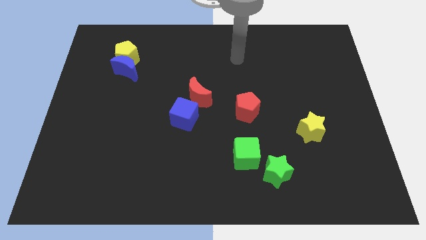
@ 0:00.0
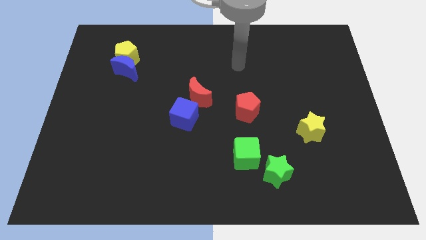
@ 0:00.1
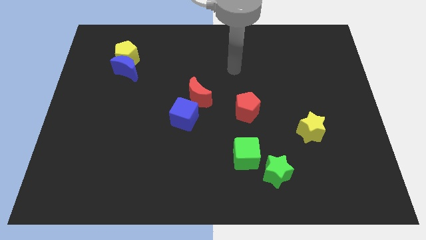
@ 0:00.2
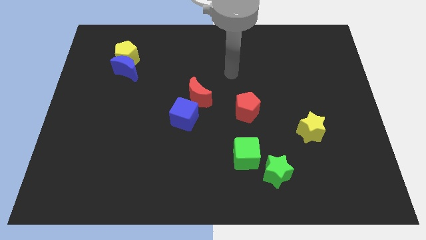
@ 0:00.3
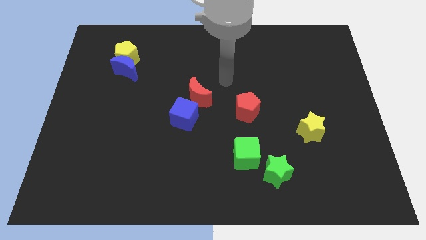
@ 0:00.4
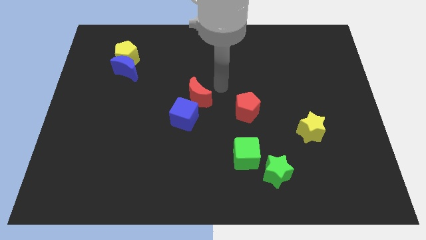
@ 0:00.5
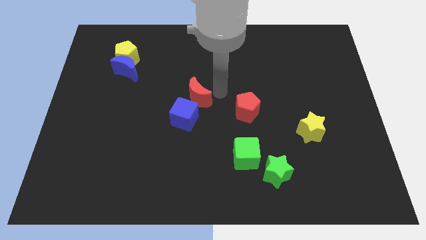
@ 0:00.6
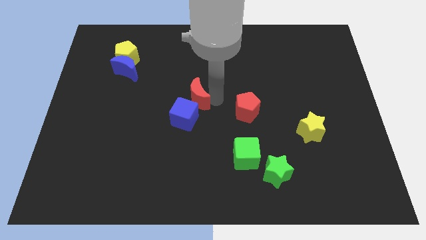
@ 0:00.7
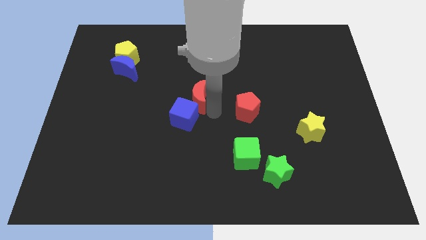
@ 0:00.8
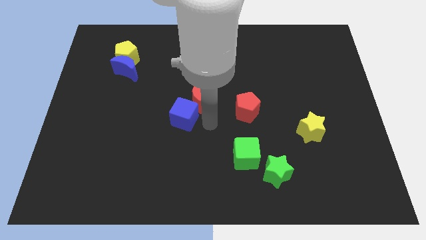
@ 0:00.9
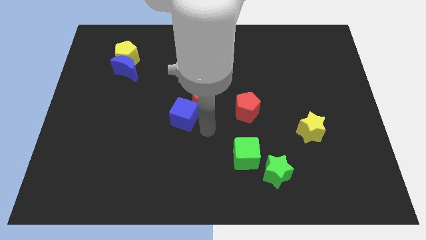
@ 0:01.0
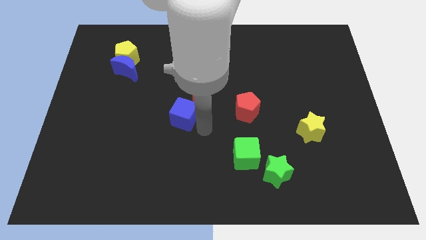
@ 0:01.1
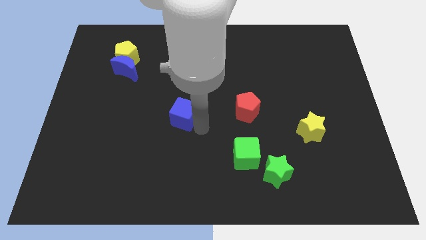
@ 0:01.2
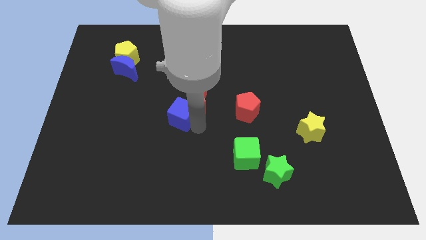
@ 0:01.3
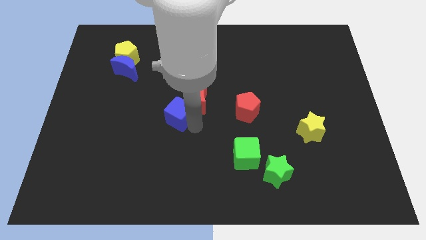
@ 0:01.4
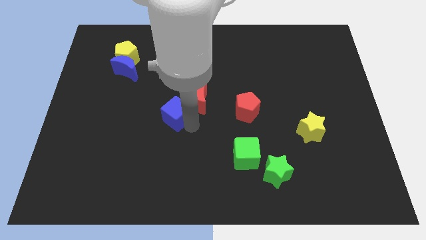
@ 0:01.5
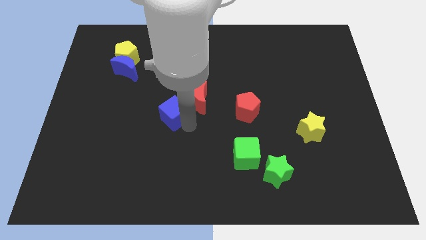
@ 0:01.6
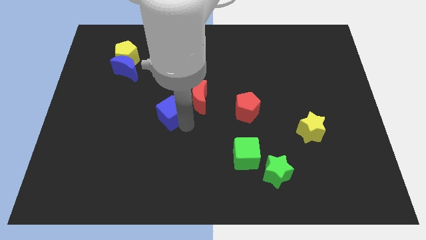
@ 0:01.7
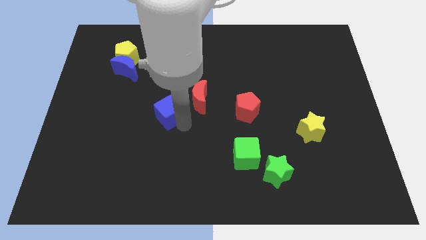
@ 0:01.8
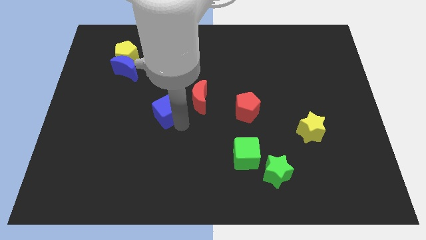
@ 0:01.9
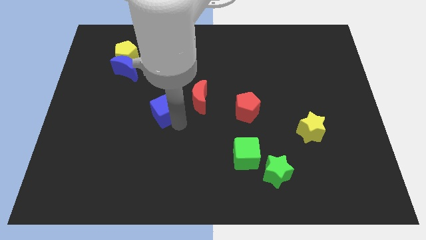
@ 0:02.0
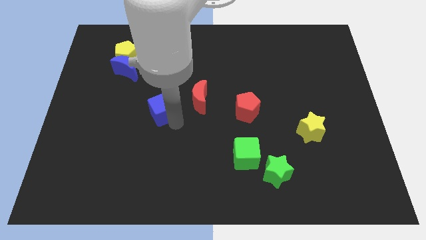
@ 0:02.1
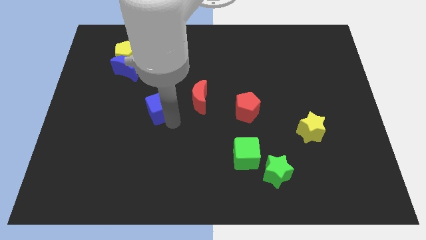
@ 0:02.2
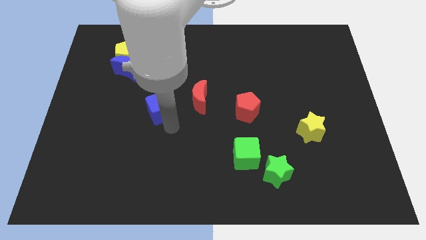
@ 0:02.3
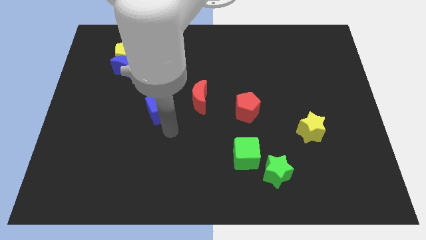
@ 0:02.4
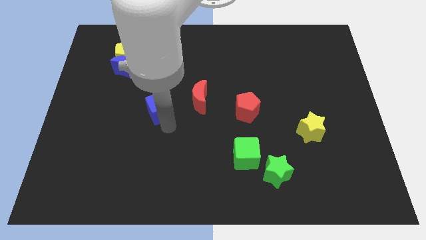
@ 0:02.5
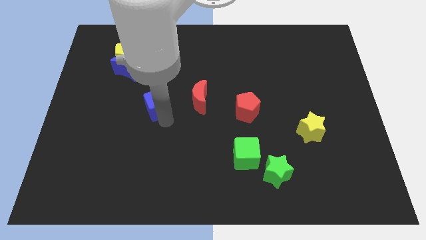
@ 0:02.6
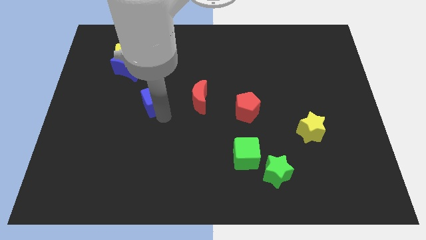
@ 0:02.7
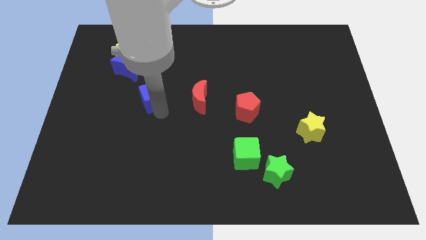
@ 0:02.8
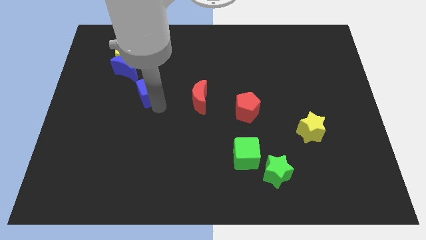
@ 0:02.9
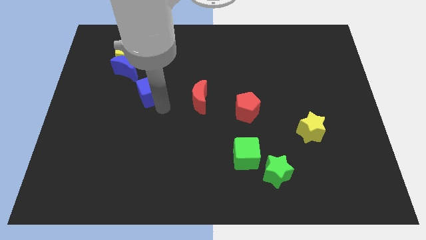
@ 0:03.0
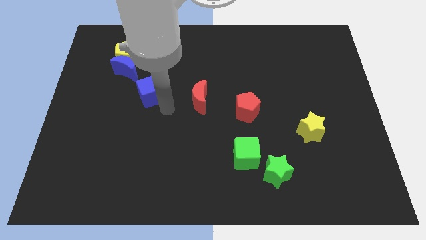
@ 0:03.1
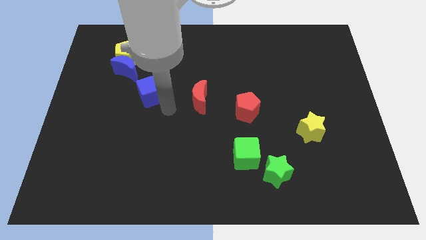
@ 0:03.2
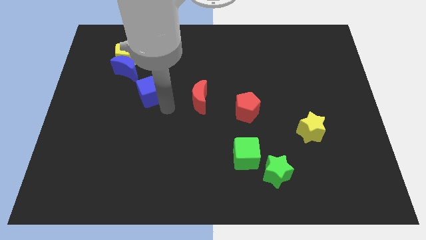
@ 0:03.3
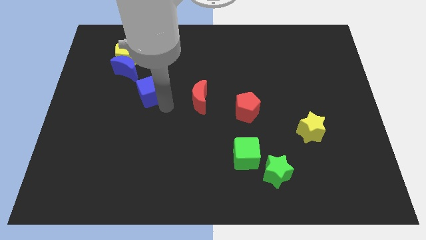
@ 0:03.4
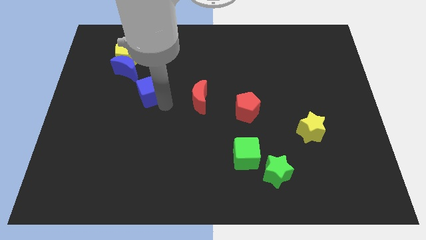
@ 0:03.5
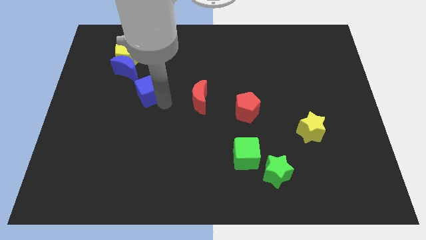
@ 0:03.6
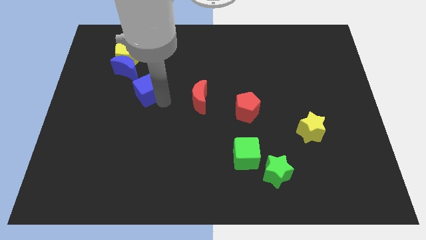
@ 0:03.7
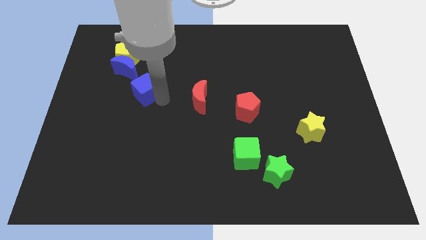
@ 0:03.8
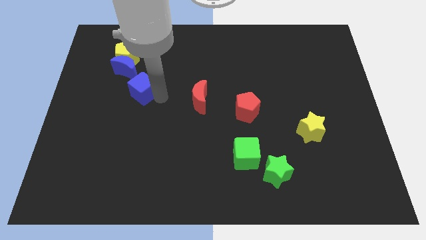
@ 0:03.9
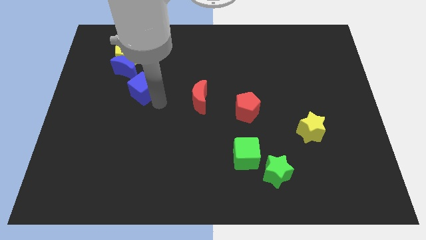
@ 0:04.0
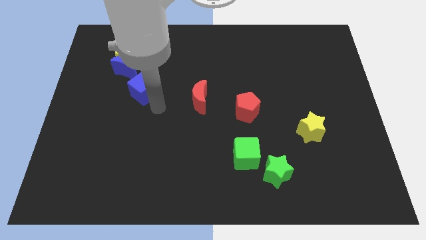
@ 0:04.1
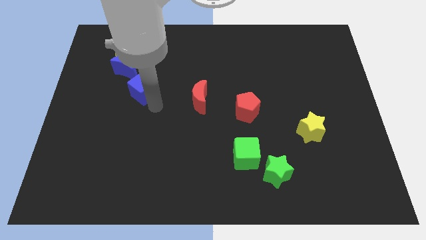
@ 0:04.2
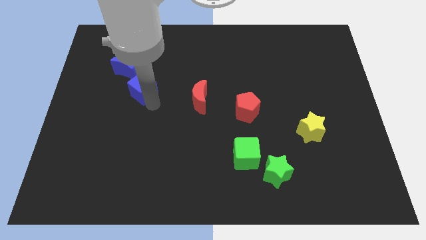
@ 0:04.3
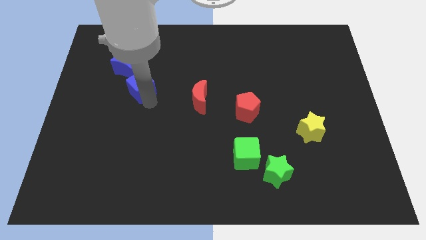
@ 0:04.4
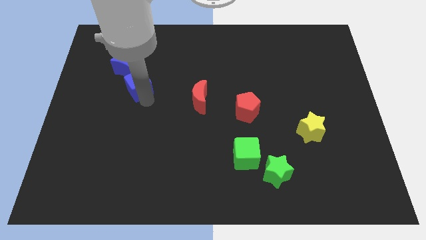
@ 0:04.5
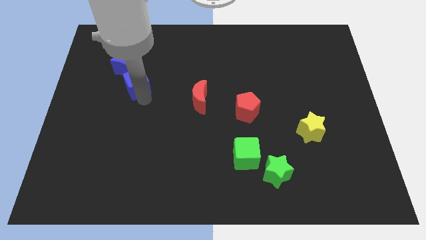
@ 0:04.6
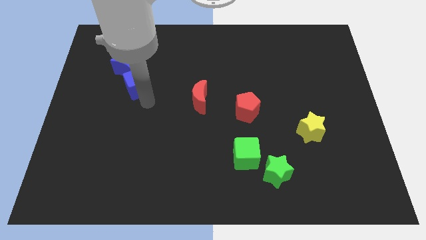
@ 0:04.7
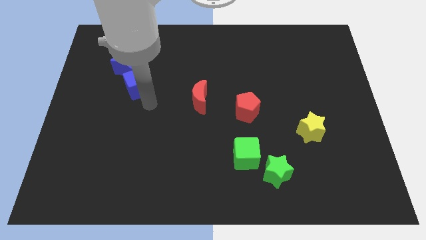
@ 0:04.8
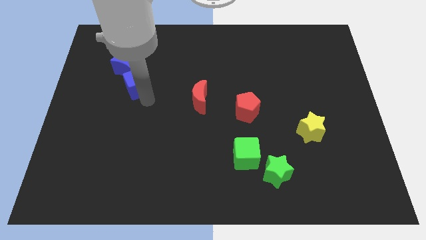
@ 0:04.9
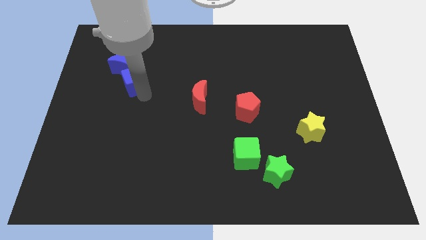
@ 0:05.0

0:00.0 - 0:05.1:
slide the blue cube next to the blue moon

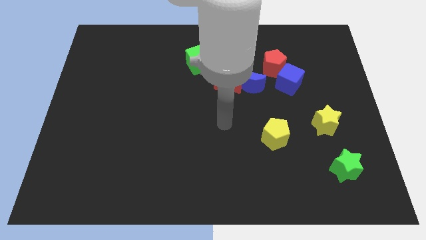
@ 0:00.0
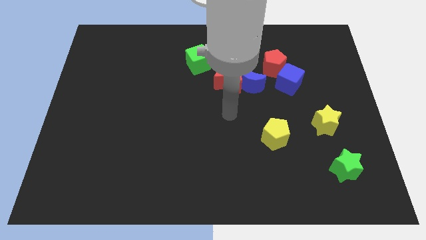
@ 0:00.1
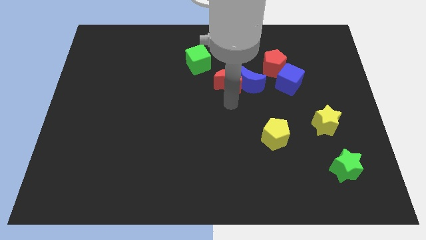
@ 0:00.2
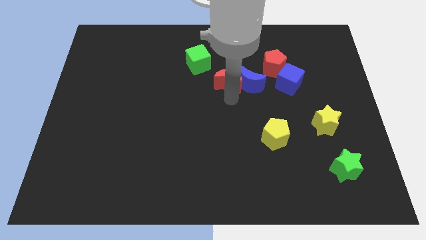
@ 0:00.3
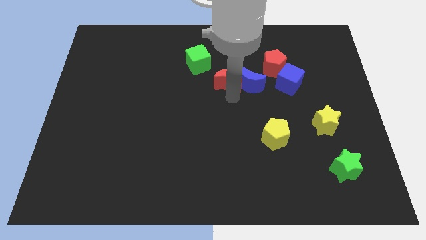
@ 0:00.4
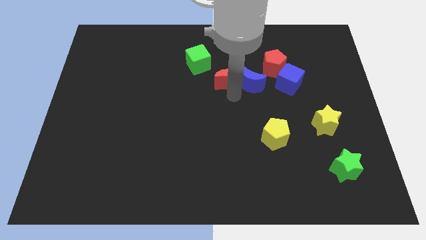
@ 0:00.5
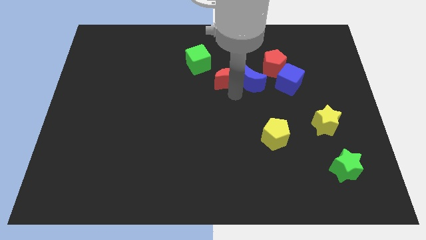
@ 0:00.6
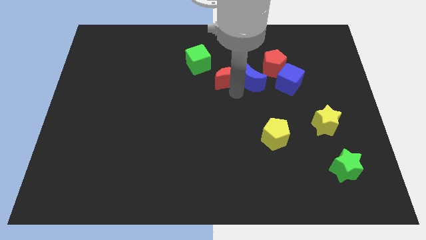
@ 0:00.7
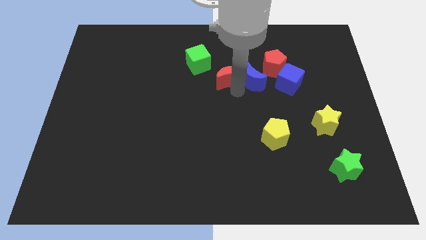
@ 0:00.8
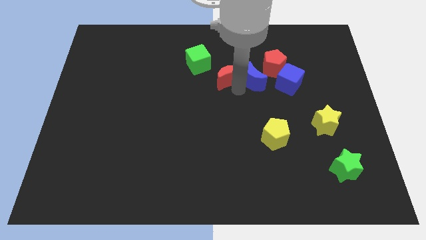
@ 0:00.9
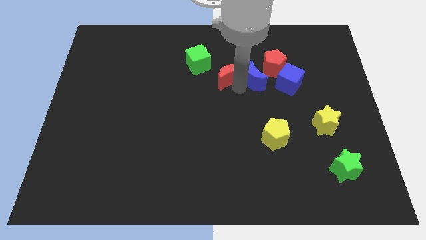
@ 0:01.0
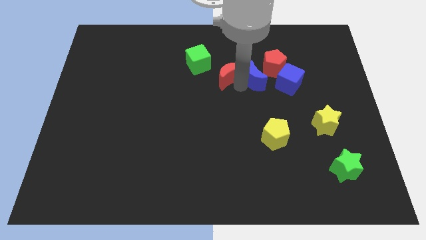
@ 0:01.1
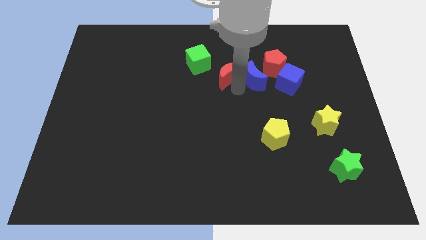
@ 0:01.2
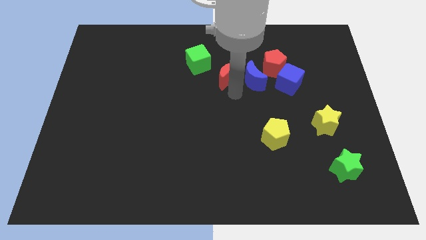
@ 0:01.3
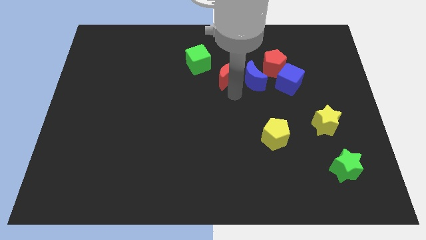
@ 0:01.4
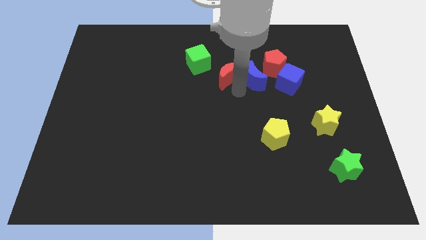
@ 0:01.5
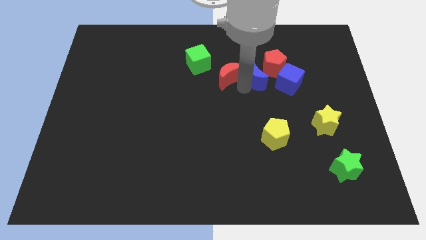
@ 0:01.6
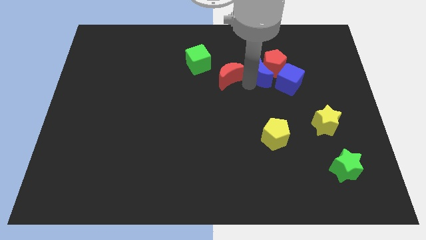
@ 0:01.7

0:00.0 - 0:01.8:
put the blue moon towards the red pentagon

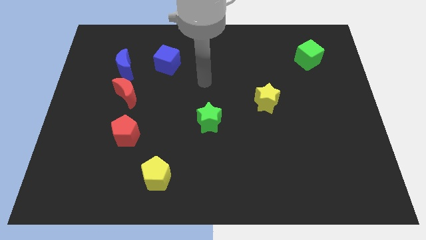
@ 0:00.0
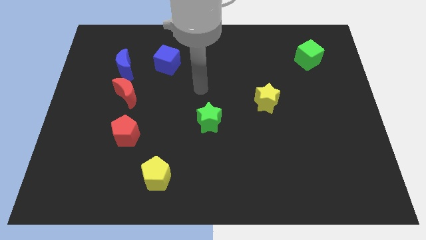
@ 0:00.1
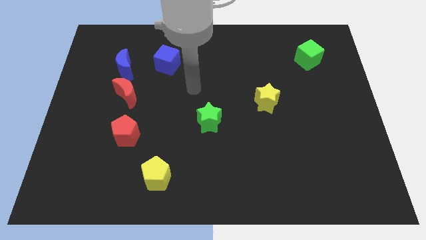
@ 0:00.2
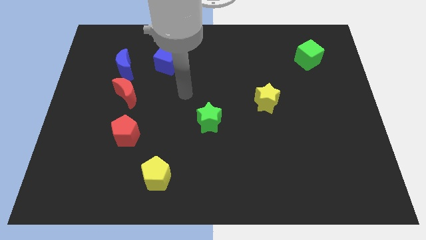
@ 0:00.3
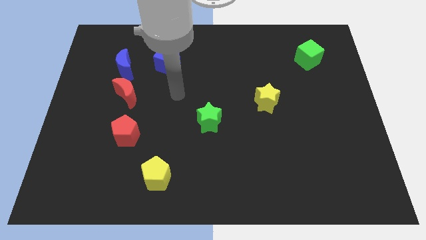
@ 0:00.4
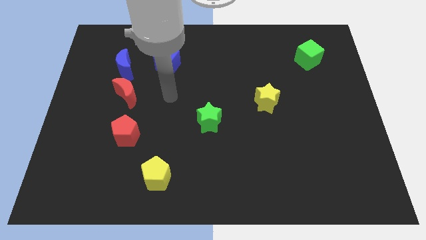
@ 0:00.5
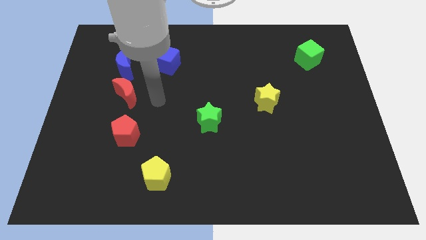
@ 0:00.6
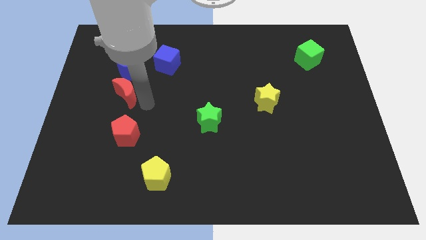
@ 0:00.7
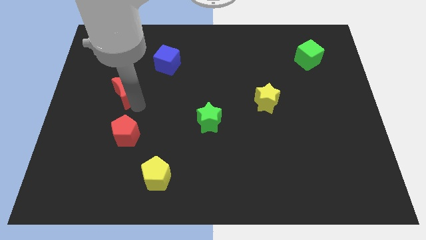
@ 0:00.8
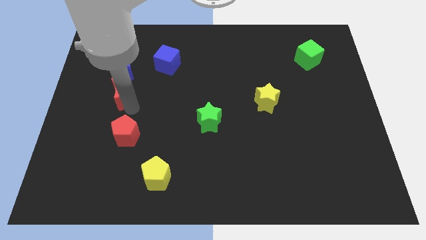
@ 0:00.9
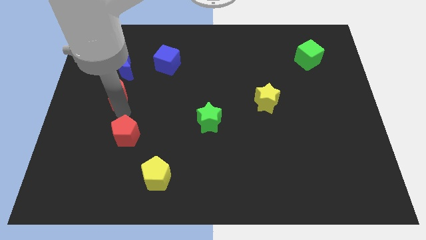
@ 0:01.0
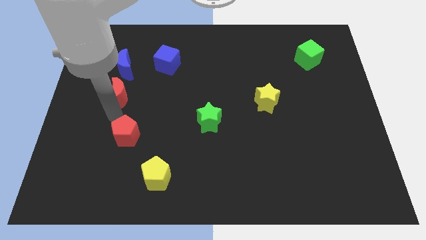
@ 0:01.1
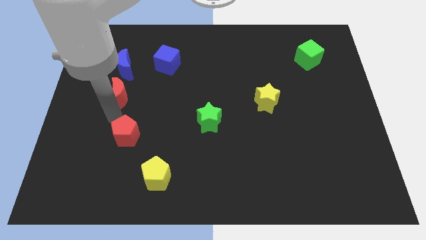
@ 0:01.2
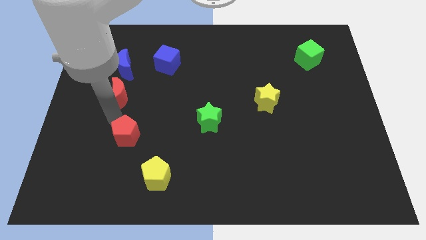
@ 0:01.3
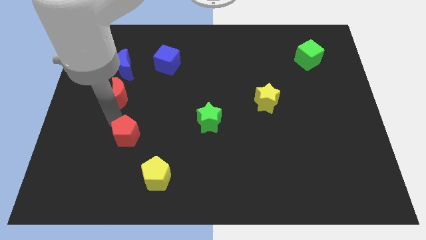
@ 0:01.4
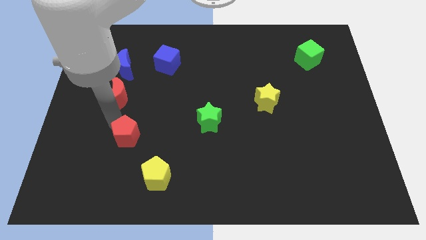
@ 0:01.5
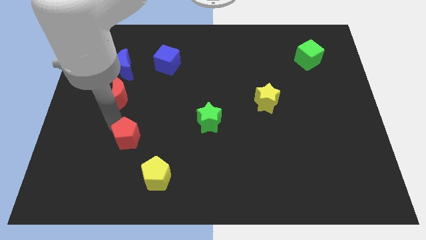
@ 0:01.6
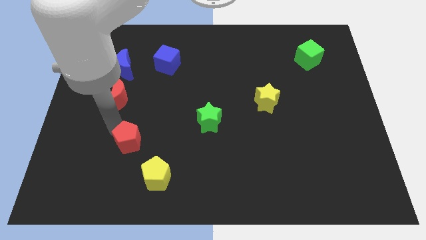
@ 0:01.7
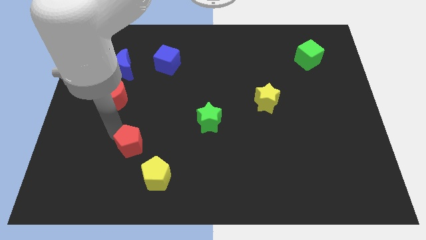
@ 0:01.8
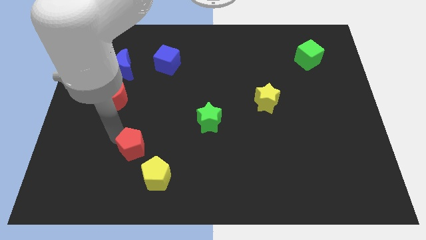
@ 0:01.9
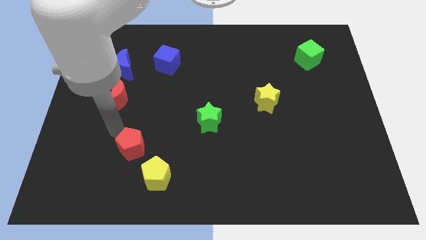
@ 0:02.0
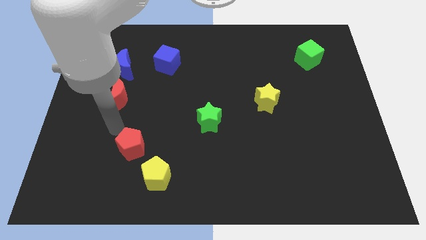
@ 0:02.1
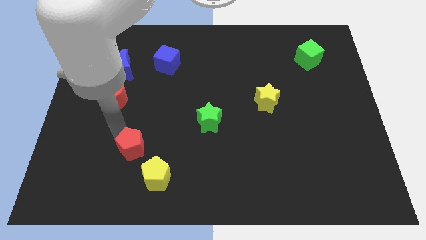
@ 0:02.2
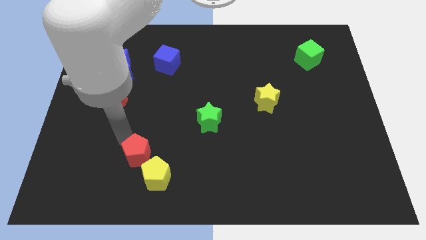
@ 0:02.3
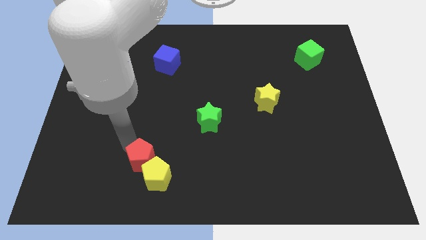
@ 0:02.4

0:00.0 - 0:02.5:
put the red pentagon close to the yellow pentagon
